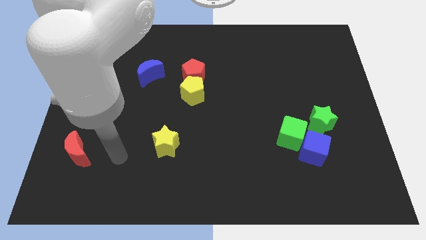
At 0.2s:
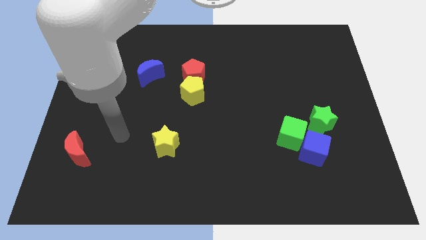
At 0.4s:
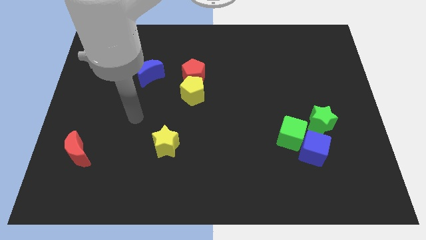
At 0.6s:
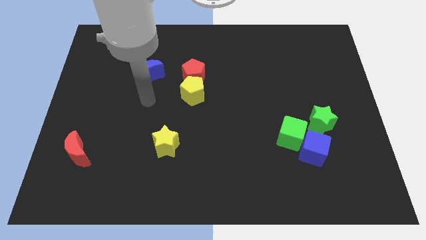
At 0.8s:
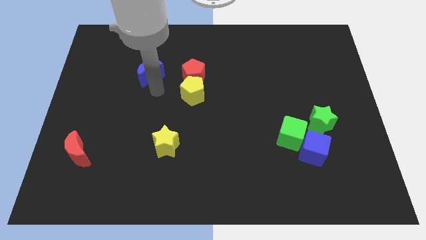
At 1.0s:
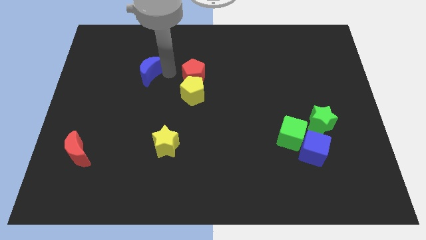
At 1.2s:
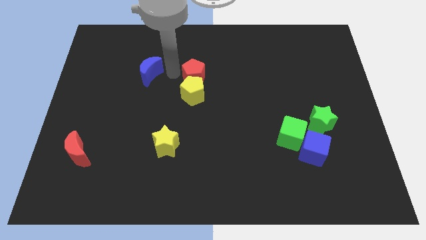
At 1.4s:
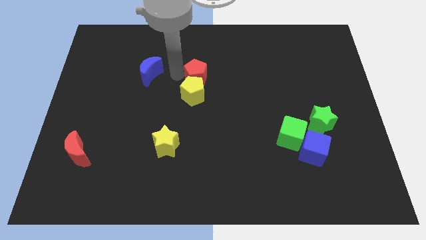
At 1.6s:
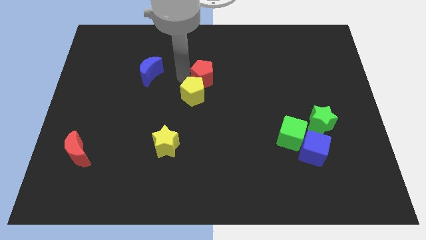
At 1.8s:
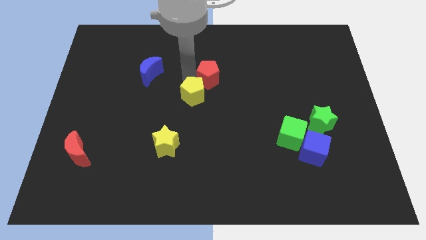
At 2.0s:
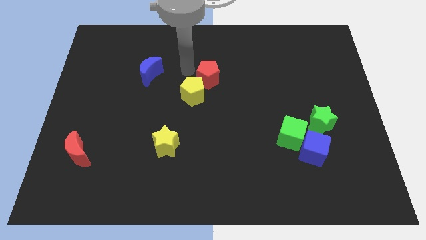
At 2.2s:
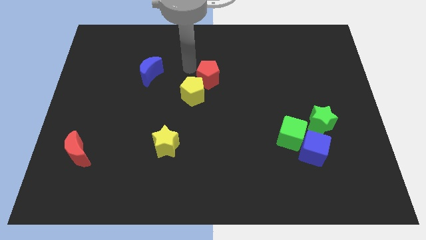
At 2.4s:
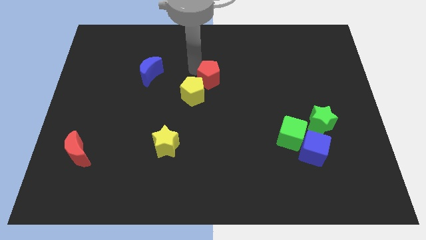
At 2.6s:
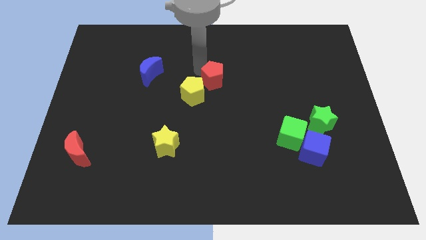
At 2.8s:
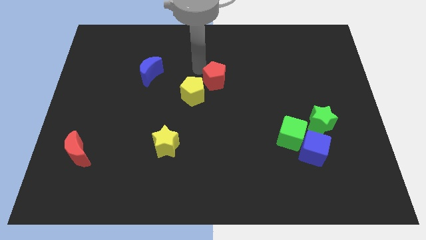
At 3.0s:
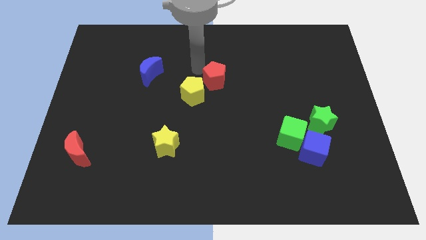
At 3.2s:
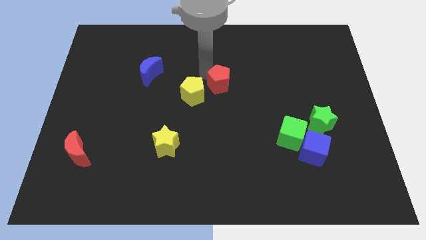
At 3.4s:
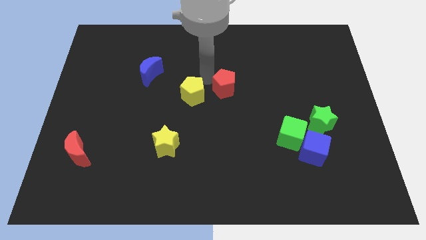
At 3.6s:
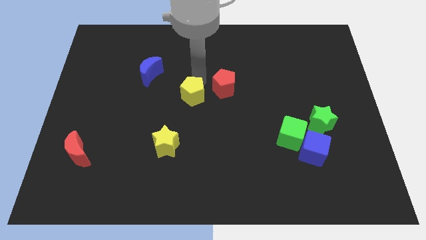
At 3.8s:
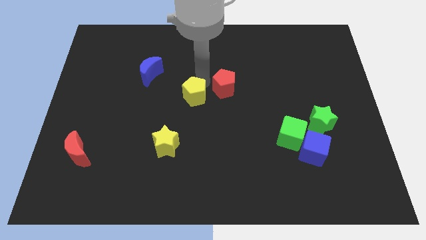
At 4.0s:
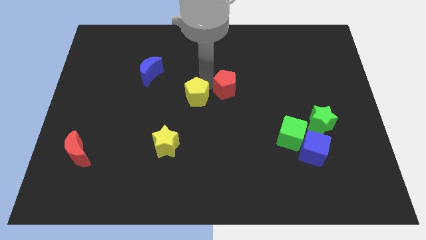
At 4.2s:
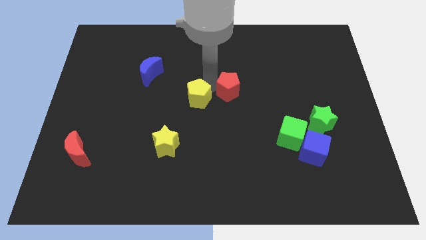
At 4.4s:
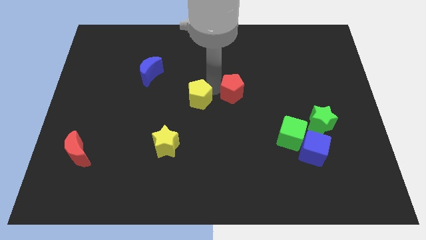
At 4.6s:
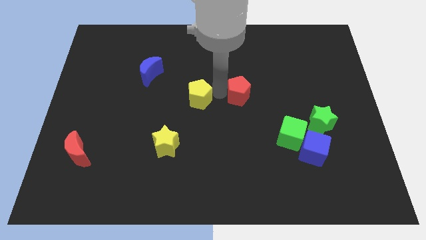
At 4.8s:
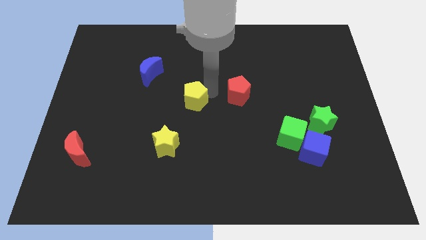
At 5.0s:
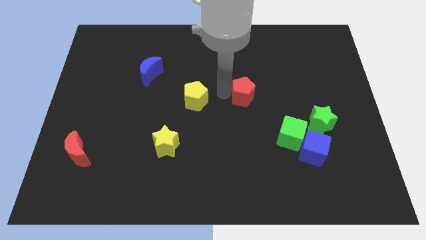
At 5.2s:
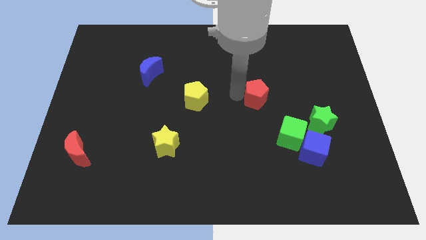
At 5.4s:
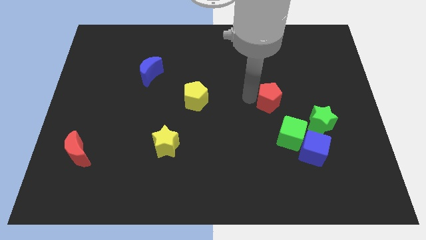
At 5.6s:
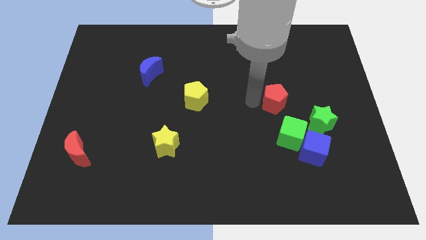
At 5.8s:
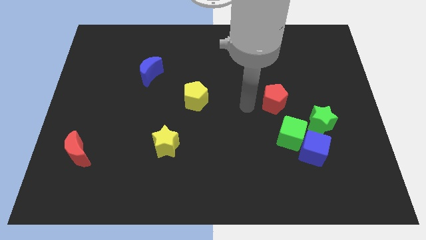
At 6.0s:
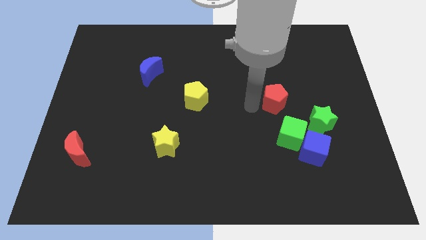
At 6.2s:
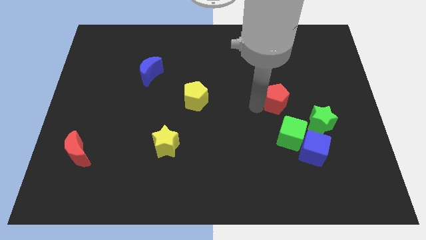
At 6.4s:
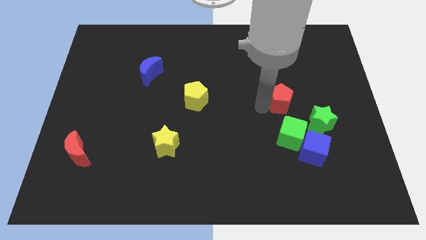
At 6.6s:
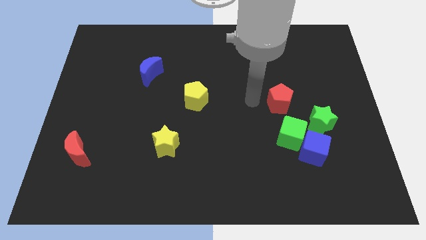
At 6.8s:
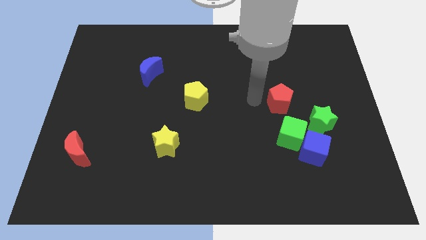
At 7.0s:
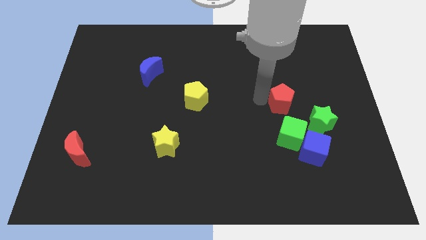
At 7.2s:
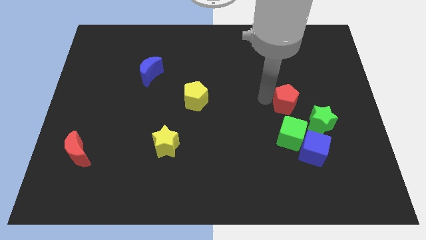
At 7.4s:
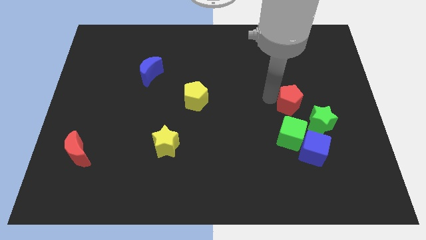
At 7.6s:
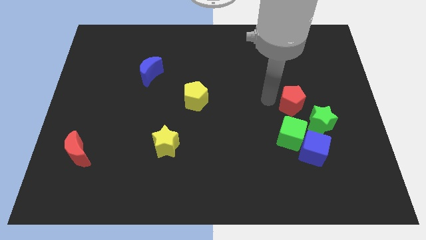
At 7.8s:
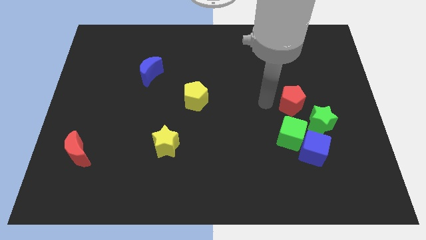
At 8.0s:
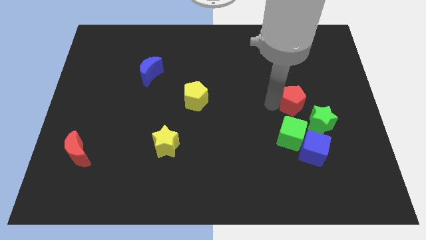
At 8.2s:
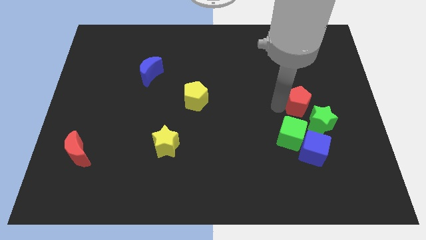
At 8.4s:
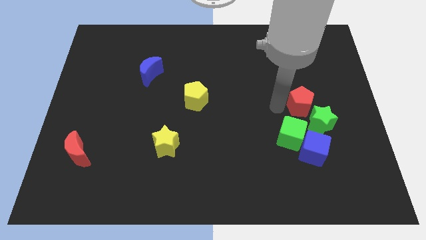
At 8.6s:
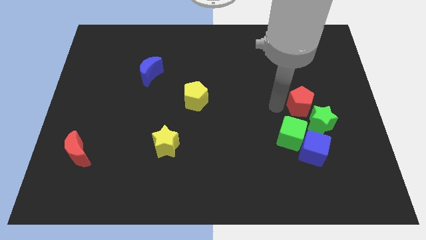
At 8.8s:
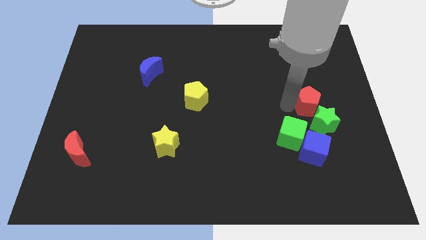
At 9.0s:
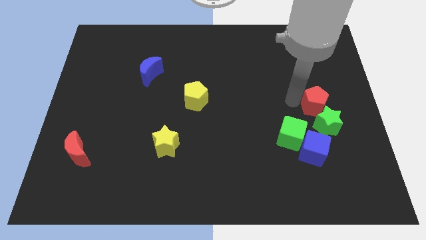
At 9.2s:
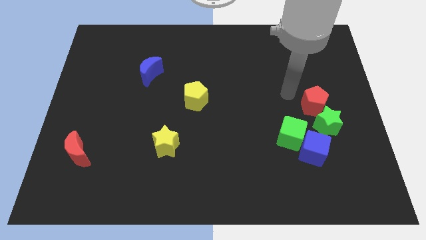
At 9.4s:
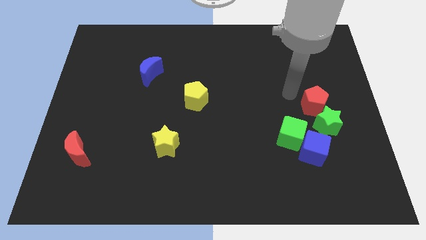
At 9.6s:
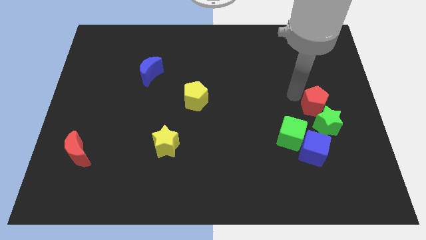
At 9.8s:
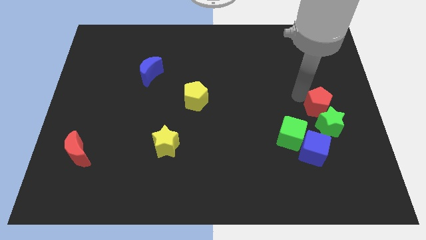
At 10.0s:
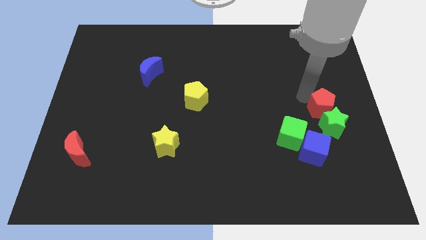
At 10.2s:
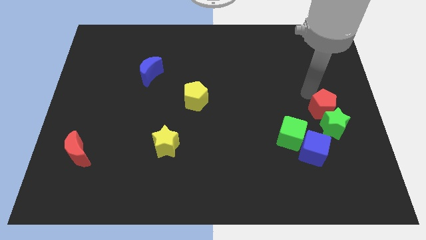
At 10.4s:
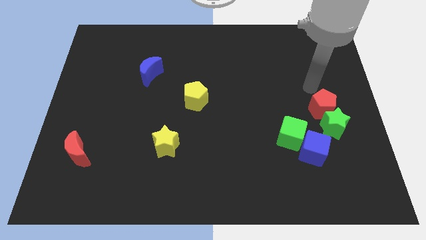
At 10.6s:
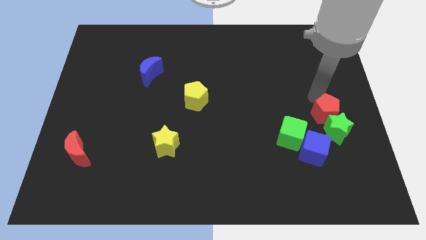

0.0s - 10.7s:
move the red pentagon diagonally up and to the right of the blue cube

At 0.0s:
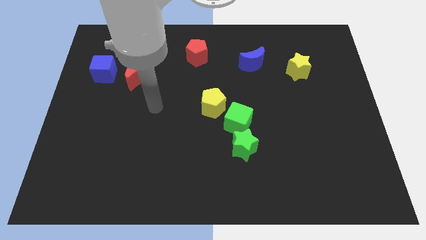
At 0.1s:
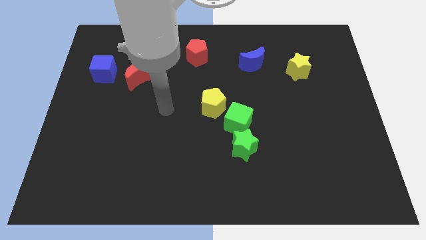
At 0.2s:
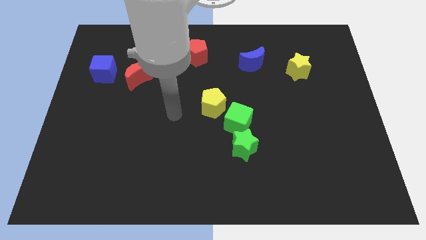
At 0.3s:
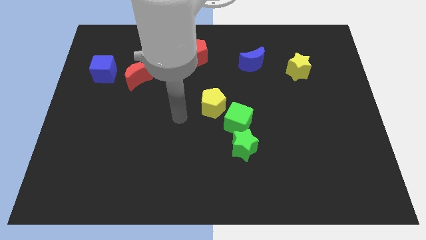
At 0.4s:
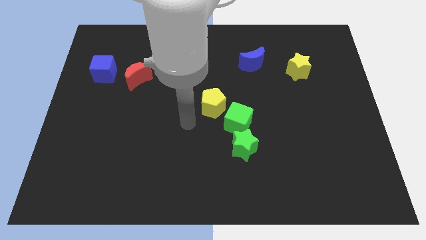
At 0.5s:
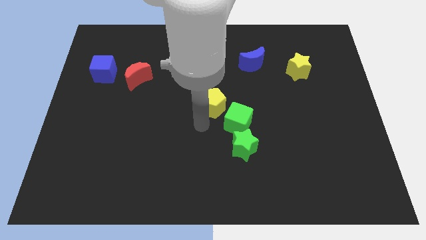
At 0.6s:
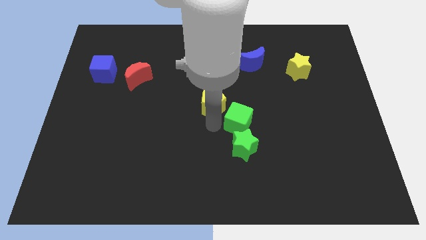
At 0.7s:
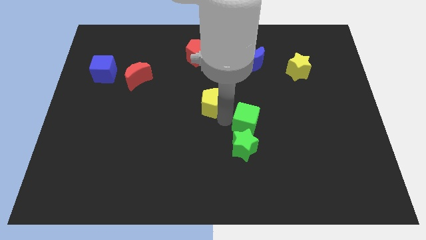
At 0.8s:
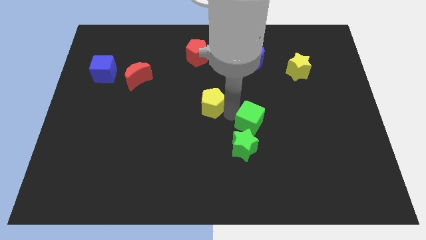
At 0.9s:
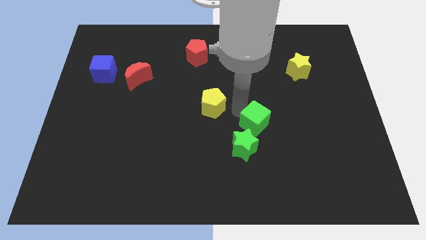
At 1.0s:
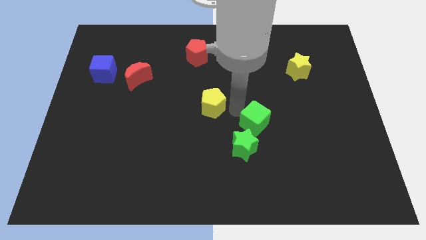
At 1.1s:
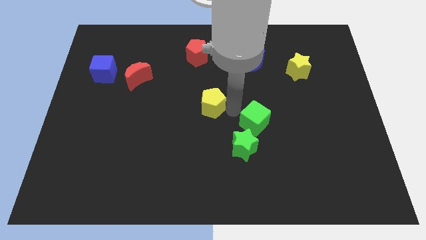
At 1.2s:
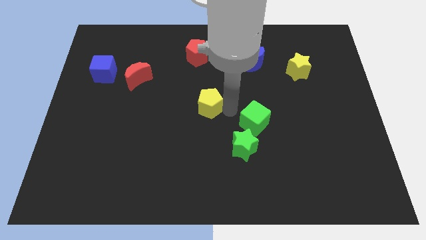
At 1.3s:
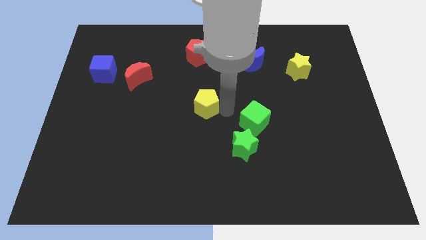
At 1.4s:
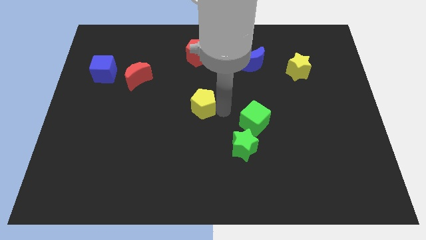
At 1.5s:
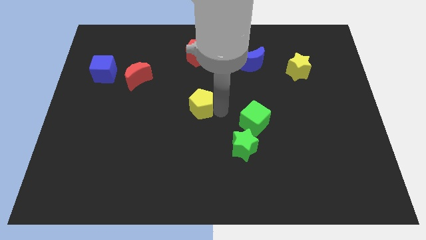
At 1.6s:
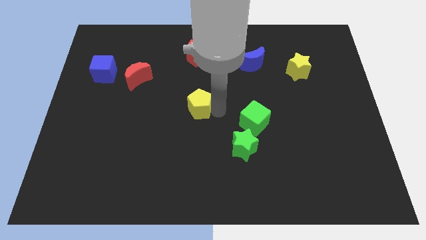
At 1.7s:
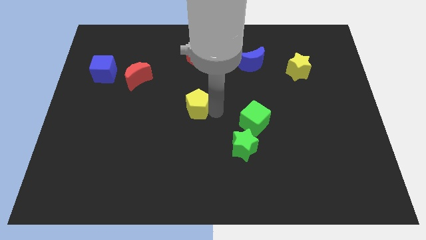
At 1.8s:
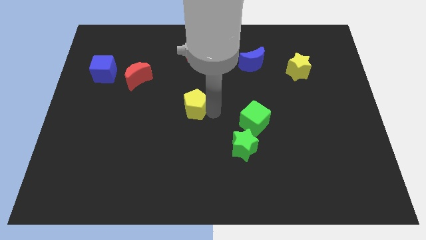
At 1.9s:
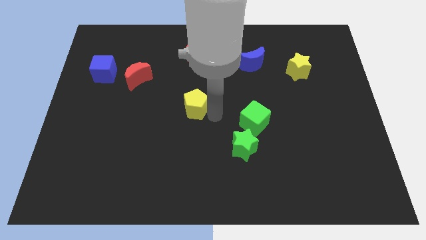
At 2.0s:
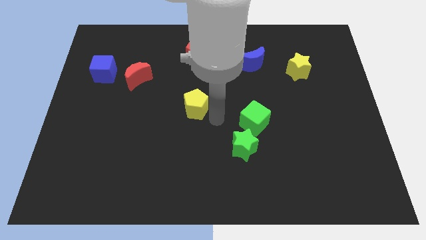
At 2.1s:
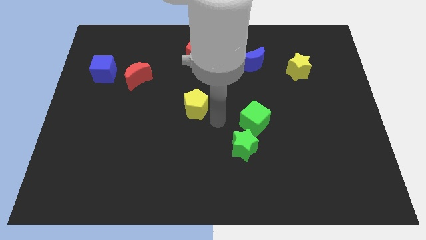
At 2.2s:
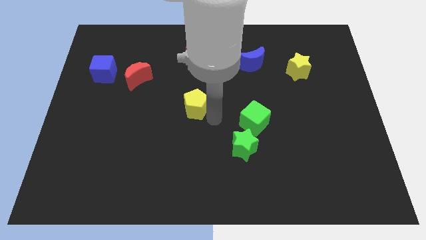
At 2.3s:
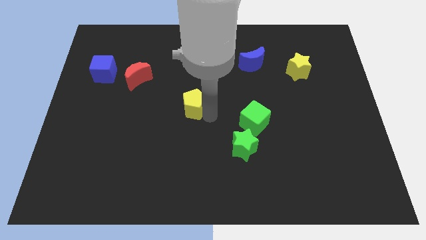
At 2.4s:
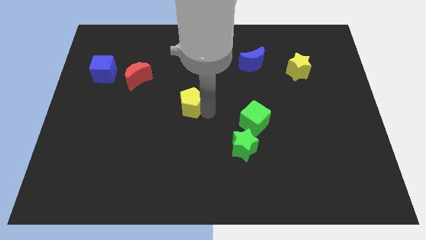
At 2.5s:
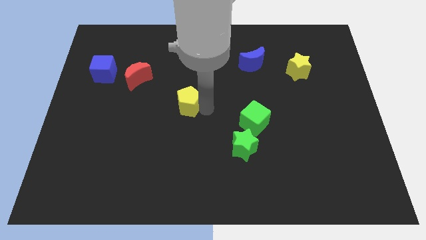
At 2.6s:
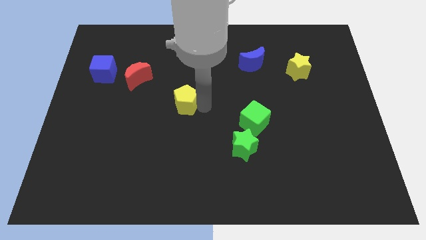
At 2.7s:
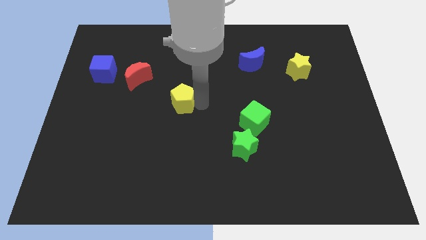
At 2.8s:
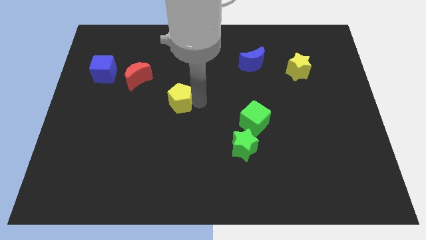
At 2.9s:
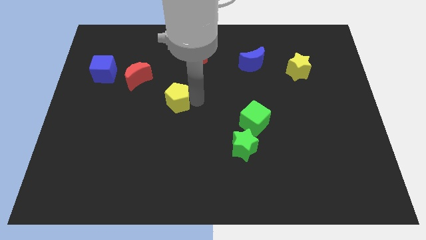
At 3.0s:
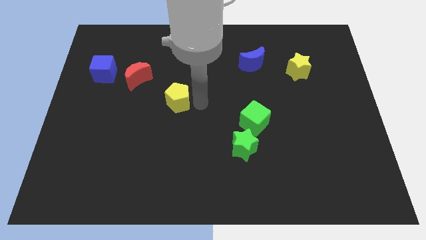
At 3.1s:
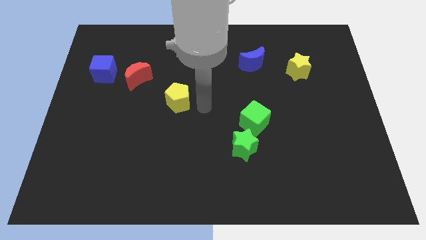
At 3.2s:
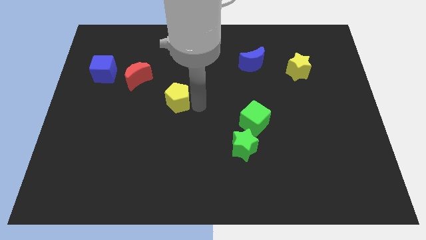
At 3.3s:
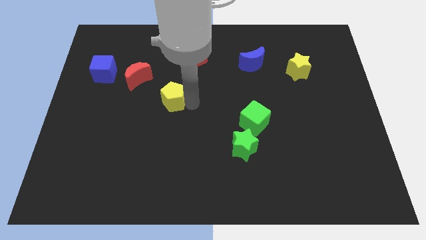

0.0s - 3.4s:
slide the yellow pentagon diagonally down and to the right of the red moon
